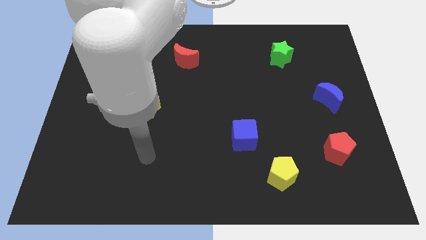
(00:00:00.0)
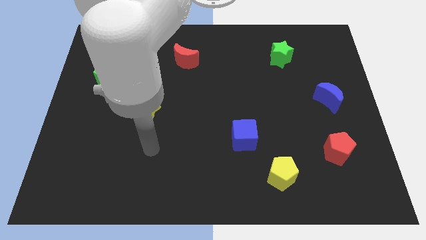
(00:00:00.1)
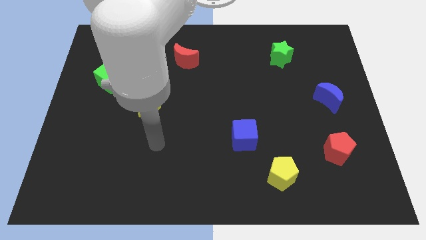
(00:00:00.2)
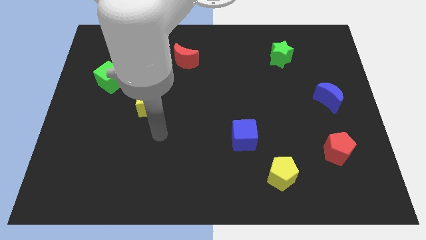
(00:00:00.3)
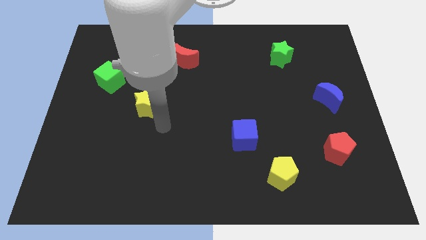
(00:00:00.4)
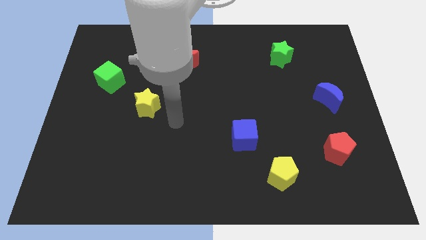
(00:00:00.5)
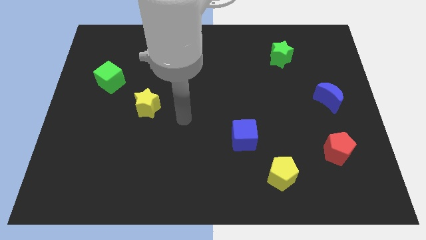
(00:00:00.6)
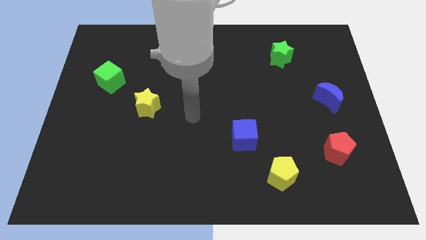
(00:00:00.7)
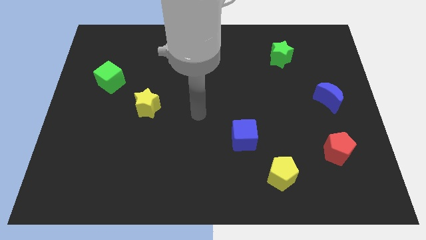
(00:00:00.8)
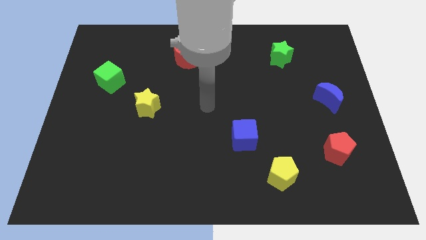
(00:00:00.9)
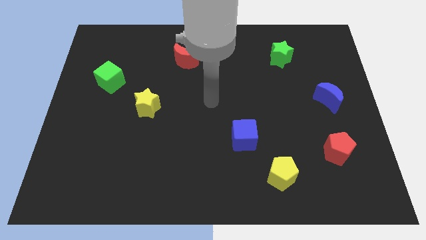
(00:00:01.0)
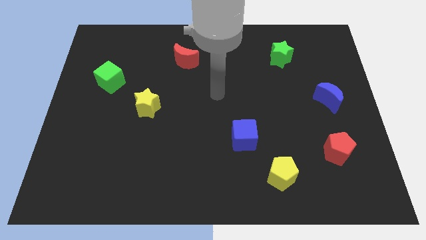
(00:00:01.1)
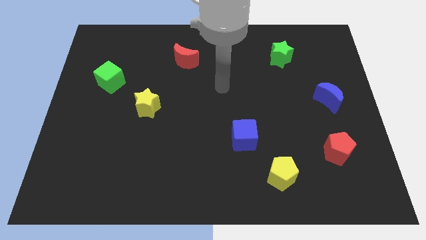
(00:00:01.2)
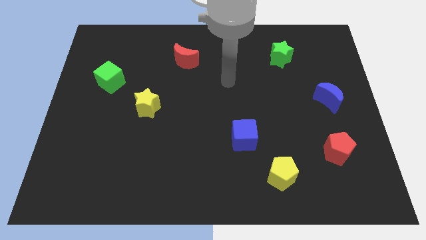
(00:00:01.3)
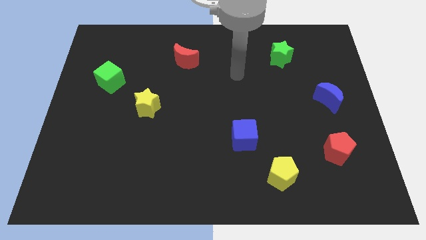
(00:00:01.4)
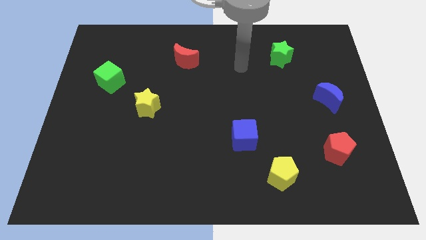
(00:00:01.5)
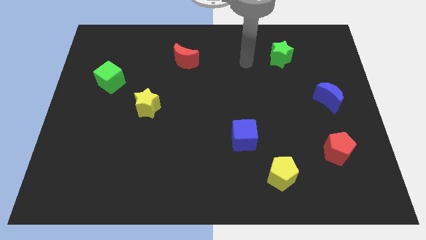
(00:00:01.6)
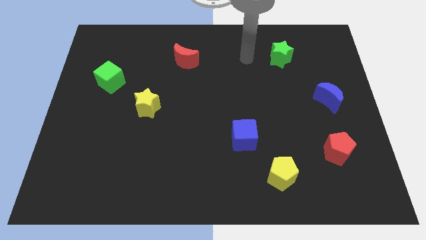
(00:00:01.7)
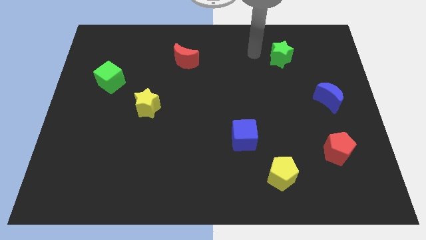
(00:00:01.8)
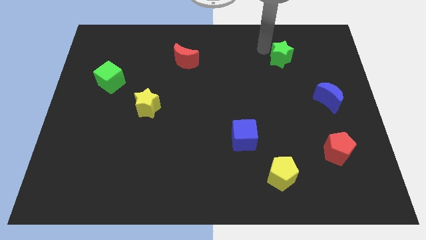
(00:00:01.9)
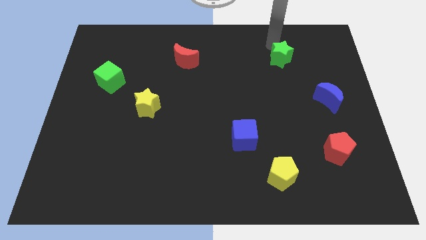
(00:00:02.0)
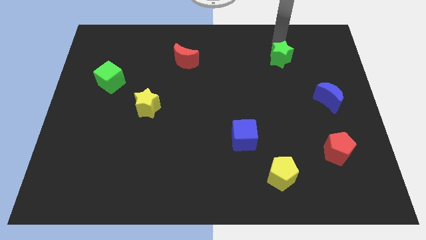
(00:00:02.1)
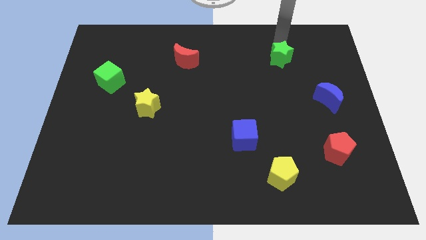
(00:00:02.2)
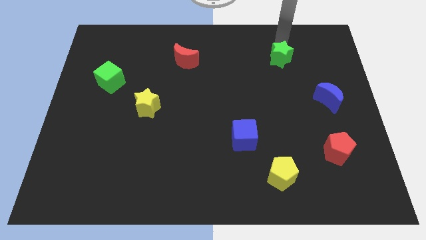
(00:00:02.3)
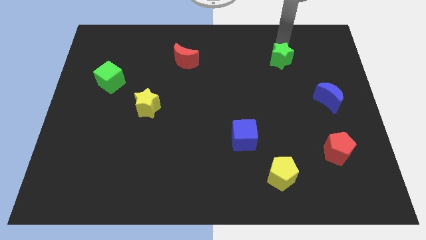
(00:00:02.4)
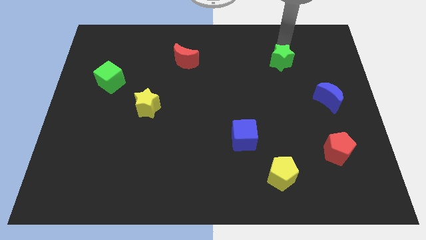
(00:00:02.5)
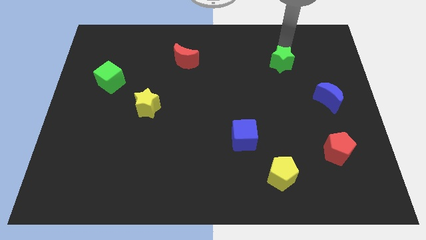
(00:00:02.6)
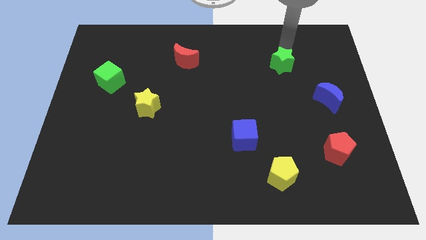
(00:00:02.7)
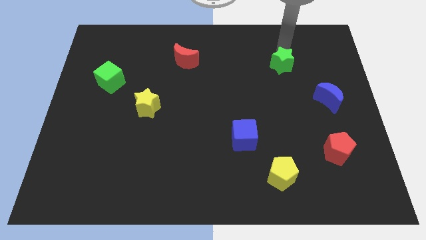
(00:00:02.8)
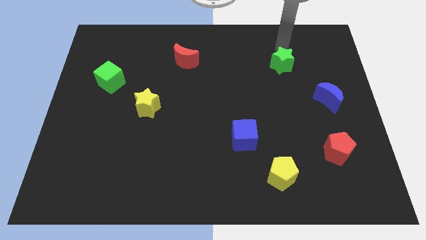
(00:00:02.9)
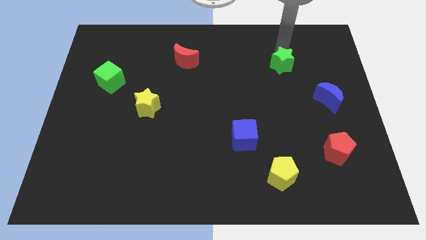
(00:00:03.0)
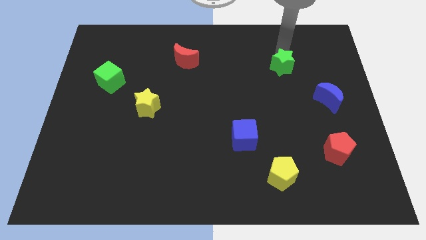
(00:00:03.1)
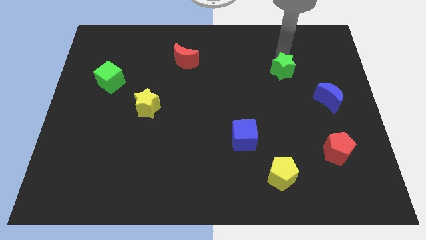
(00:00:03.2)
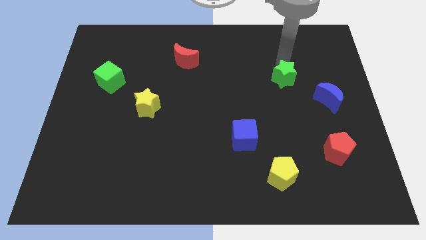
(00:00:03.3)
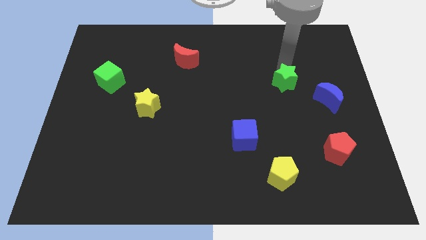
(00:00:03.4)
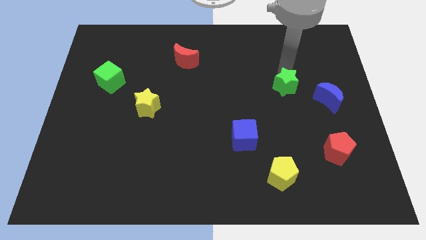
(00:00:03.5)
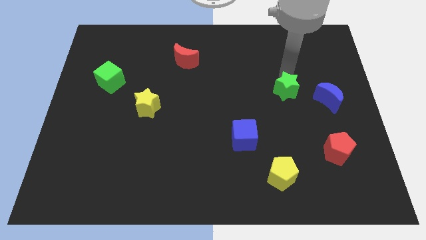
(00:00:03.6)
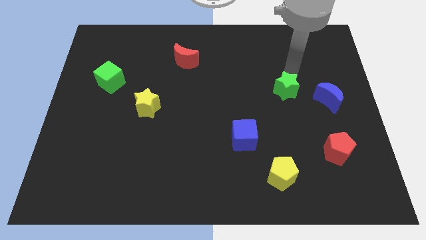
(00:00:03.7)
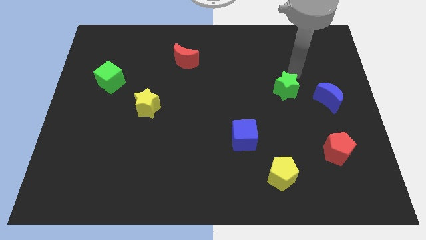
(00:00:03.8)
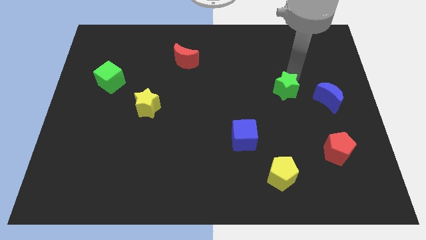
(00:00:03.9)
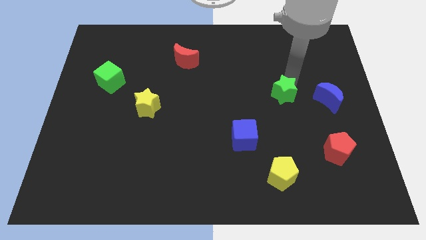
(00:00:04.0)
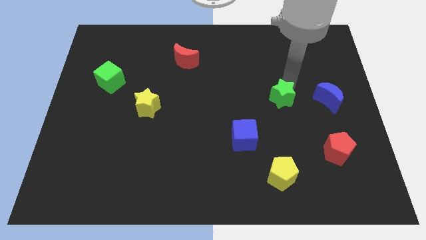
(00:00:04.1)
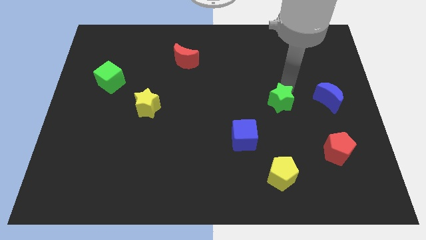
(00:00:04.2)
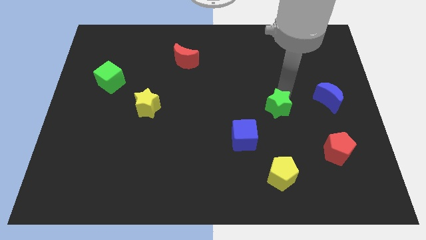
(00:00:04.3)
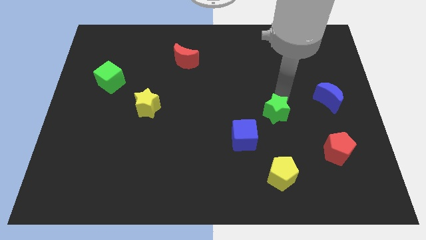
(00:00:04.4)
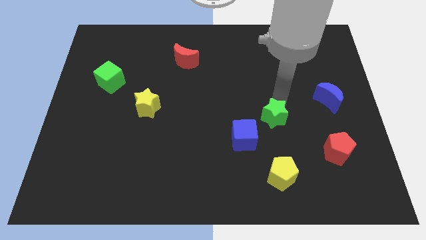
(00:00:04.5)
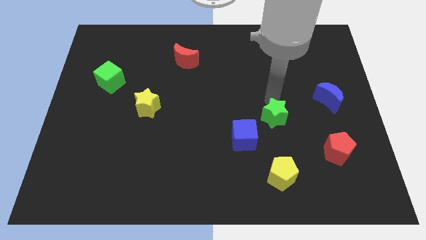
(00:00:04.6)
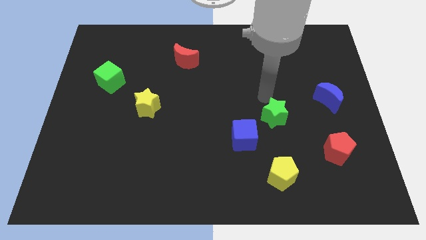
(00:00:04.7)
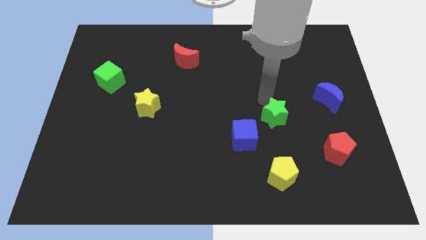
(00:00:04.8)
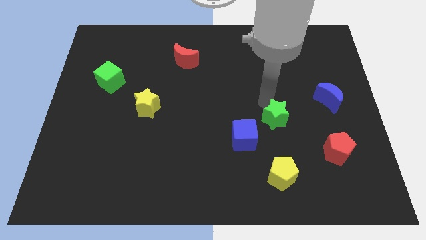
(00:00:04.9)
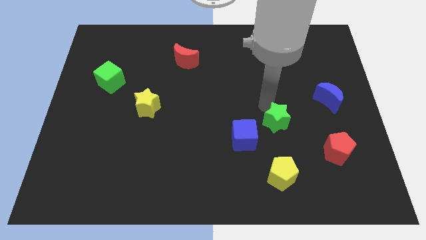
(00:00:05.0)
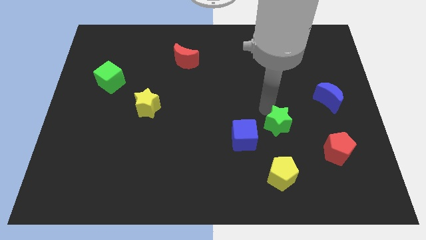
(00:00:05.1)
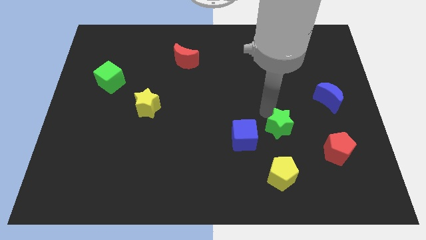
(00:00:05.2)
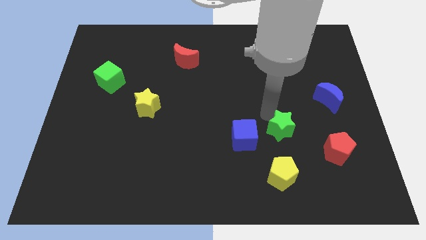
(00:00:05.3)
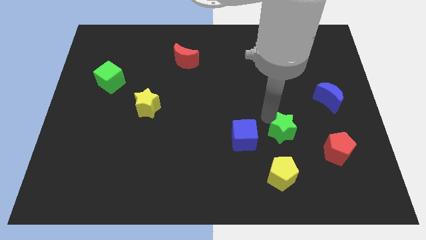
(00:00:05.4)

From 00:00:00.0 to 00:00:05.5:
slide the green star to the left of the red pentagon

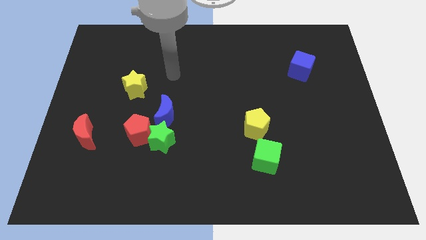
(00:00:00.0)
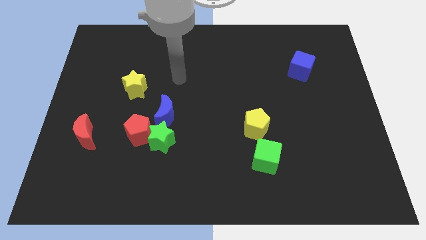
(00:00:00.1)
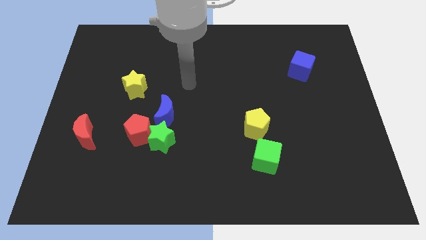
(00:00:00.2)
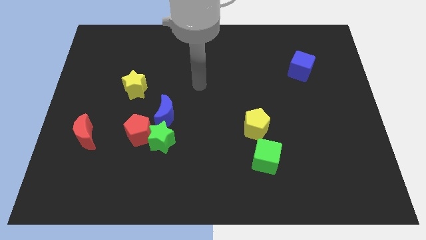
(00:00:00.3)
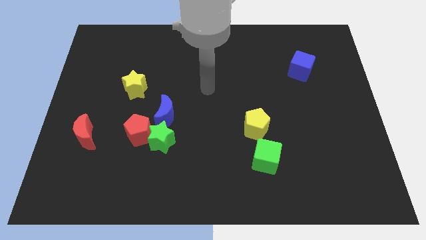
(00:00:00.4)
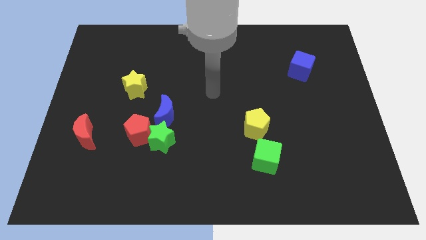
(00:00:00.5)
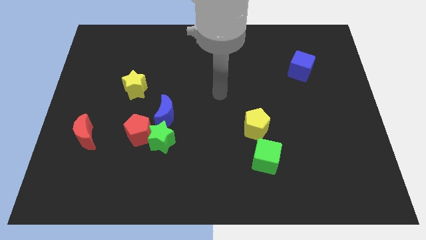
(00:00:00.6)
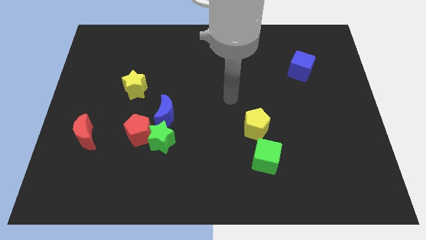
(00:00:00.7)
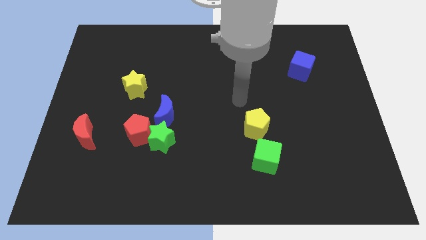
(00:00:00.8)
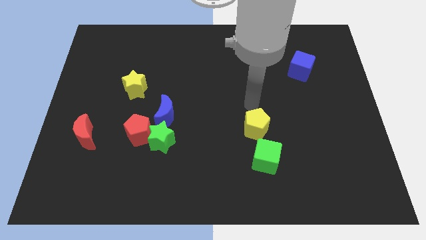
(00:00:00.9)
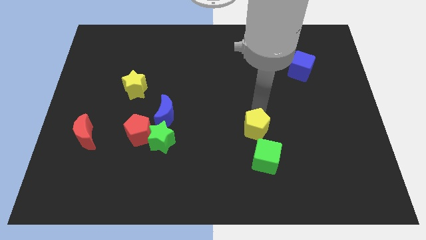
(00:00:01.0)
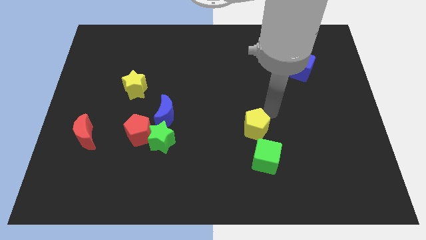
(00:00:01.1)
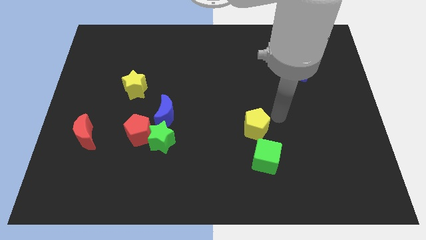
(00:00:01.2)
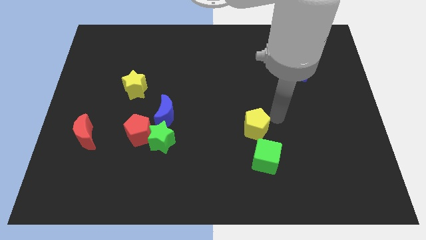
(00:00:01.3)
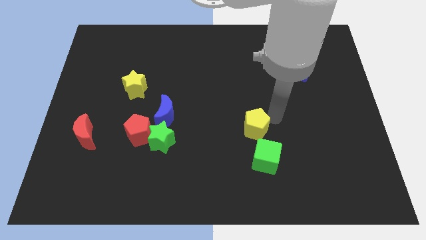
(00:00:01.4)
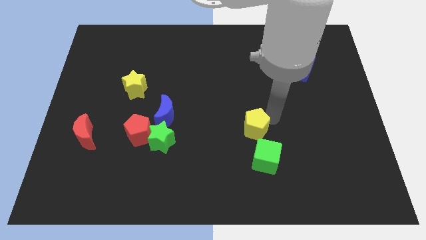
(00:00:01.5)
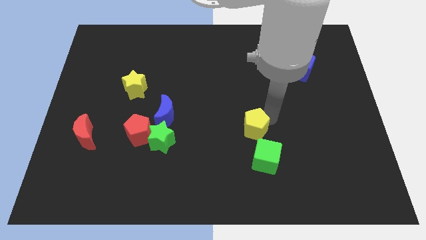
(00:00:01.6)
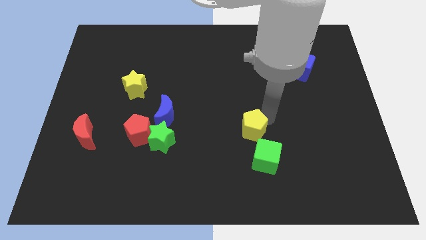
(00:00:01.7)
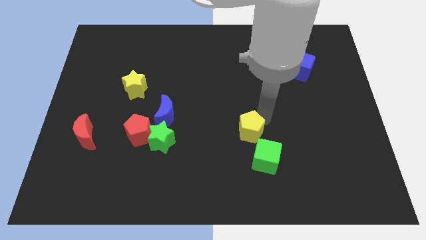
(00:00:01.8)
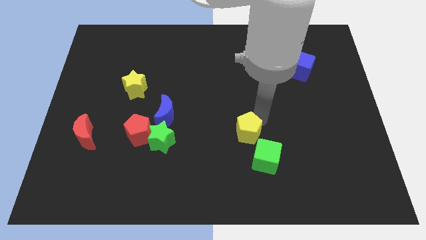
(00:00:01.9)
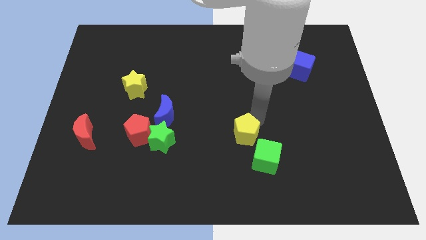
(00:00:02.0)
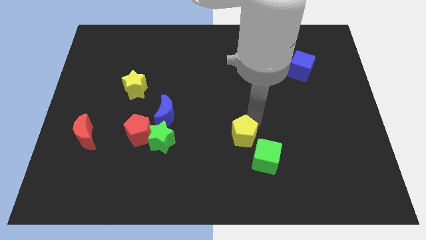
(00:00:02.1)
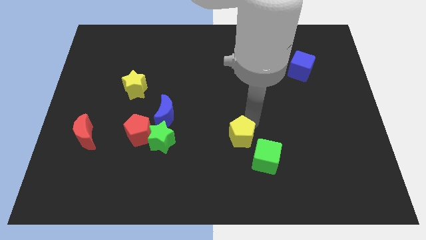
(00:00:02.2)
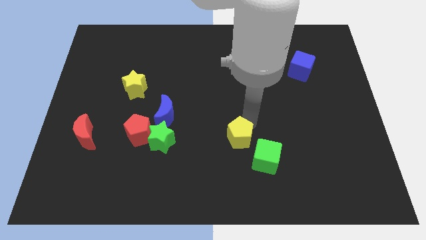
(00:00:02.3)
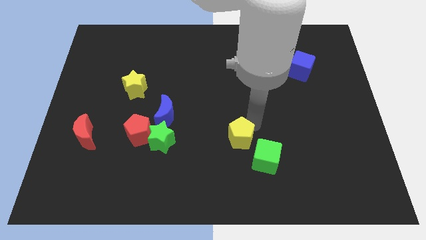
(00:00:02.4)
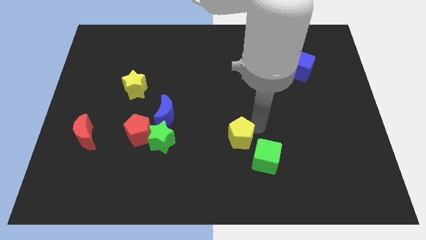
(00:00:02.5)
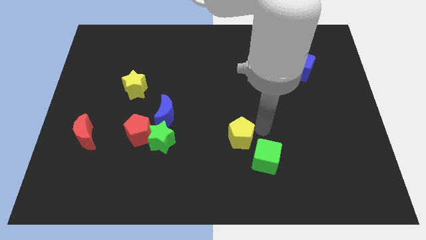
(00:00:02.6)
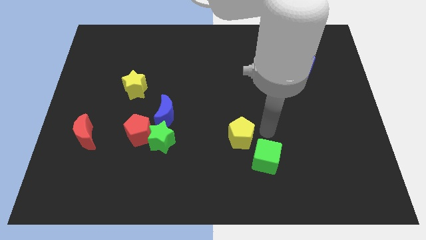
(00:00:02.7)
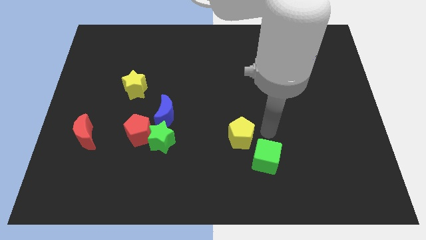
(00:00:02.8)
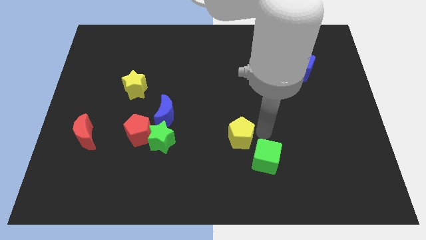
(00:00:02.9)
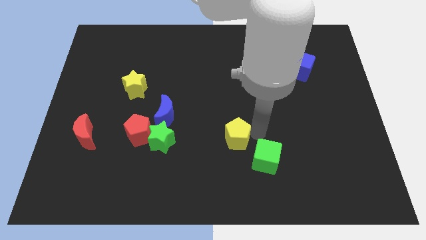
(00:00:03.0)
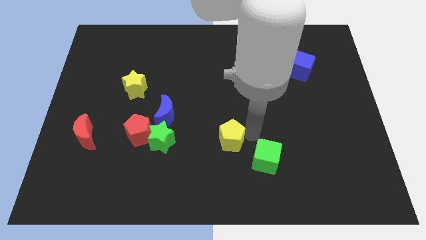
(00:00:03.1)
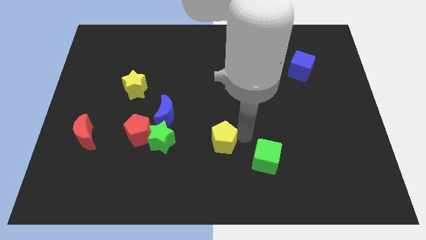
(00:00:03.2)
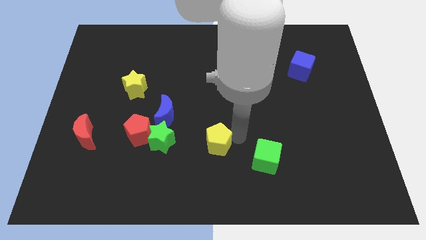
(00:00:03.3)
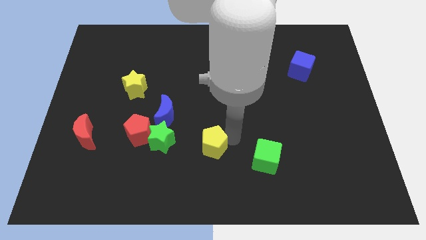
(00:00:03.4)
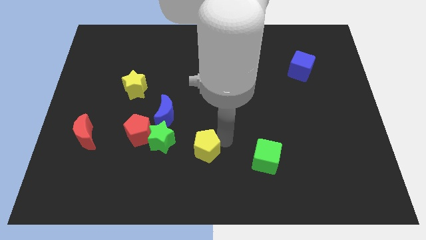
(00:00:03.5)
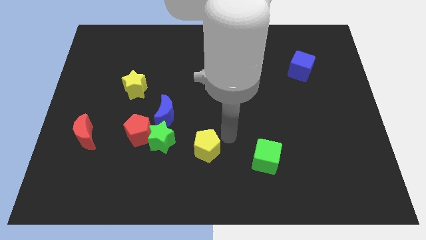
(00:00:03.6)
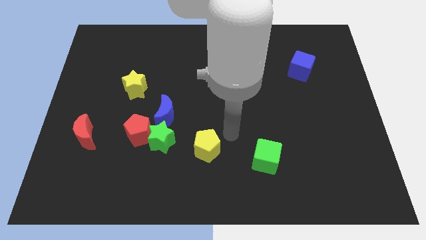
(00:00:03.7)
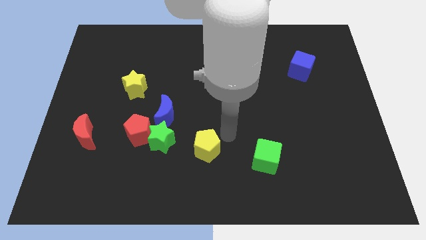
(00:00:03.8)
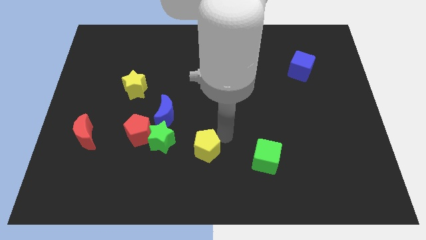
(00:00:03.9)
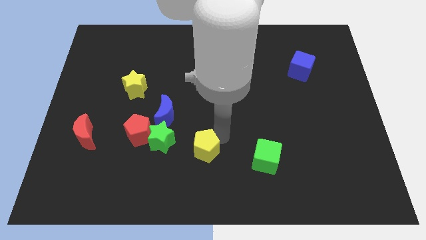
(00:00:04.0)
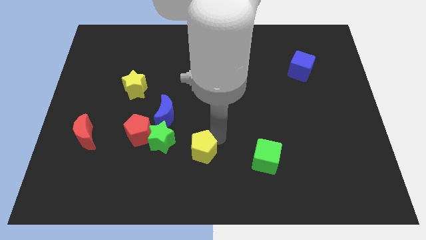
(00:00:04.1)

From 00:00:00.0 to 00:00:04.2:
slide the yellow pentagon diagonally down and to the right of the green star
